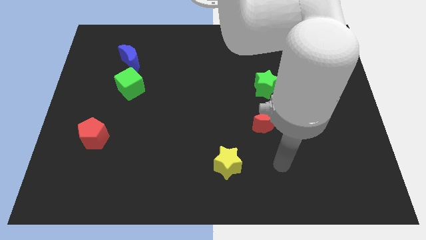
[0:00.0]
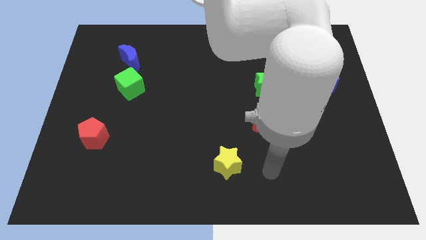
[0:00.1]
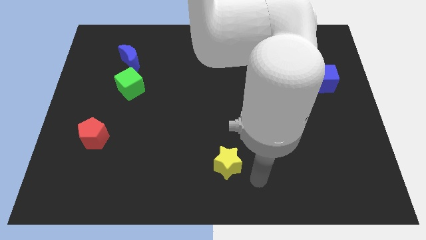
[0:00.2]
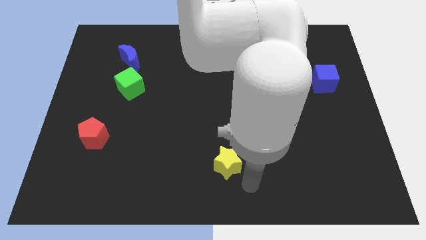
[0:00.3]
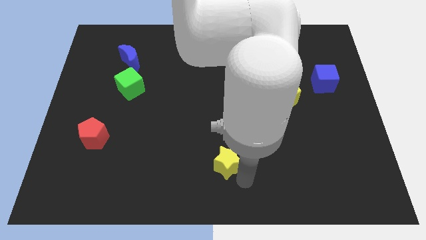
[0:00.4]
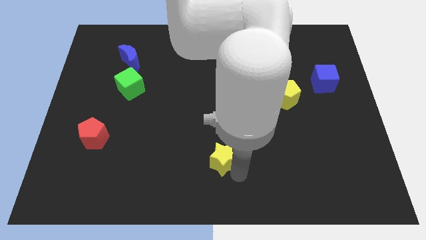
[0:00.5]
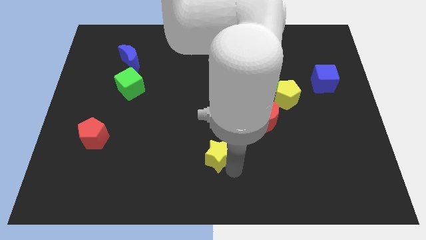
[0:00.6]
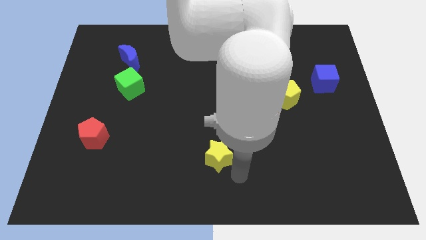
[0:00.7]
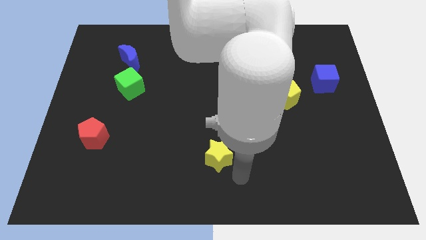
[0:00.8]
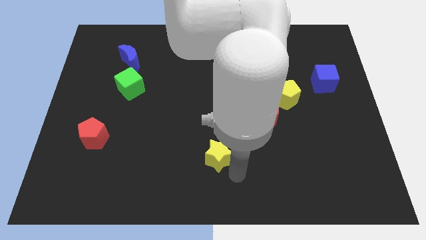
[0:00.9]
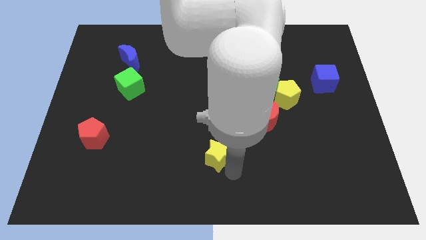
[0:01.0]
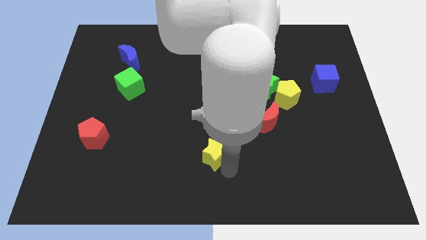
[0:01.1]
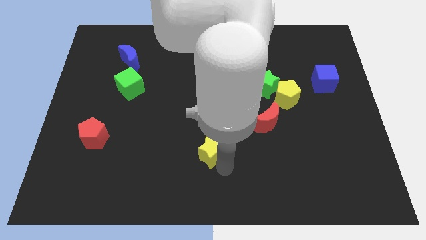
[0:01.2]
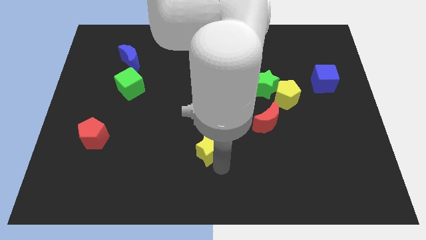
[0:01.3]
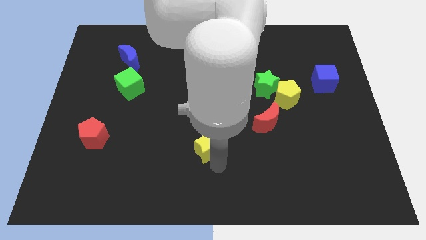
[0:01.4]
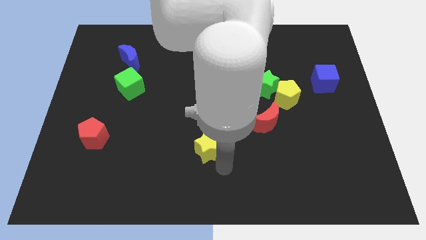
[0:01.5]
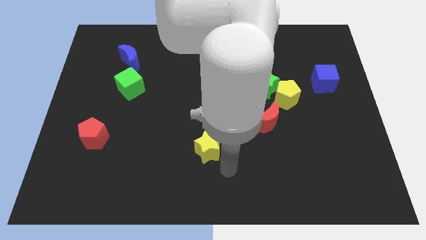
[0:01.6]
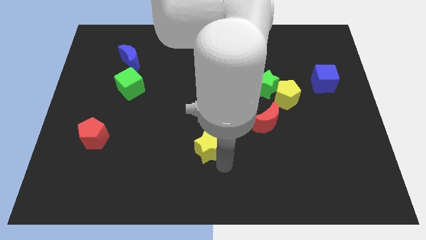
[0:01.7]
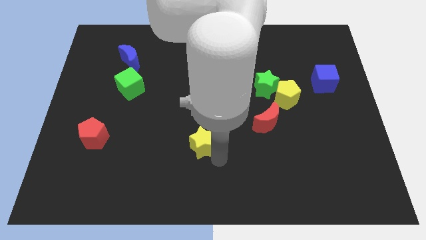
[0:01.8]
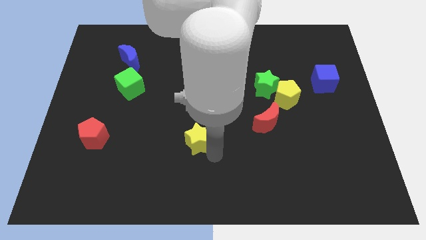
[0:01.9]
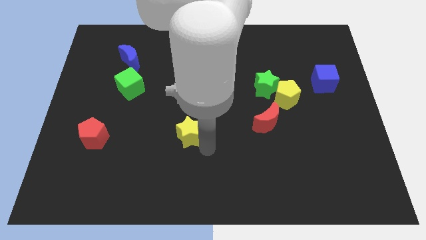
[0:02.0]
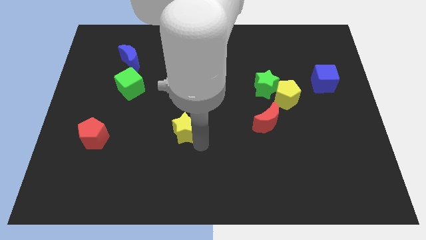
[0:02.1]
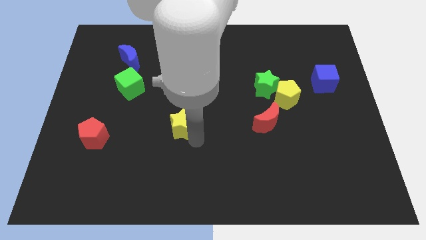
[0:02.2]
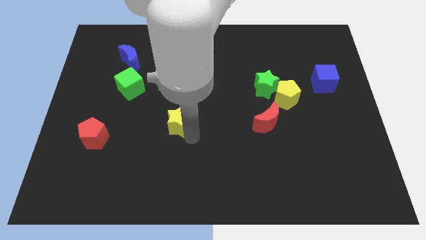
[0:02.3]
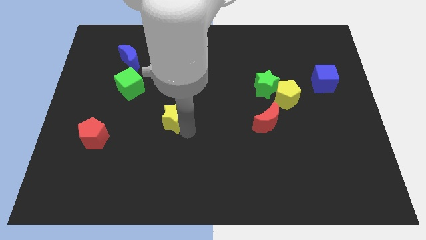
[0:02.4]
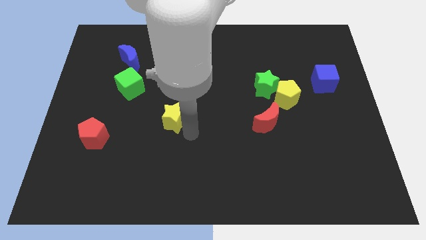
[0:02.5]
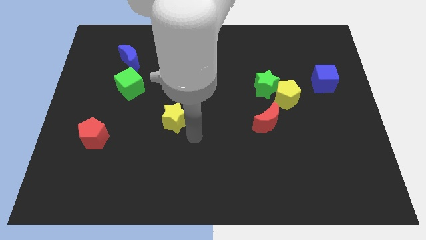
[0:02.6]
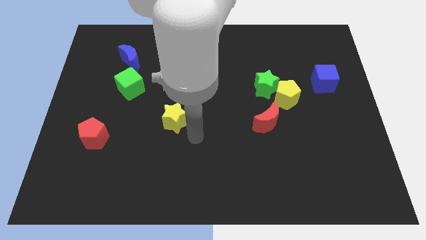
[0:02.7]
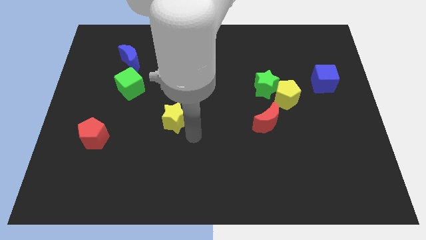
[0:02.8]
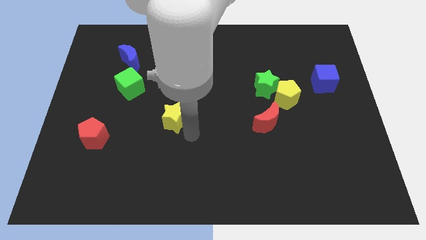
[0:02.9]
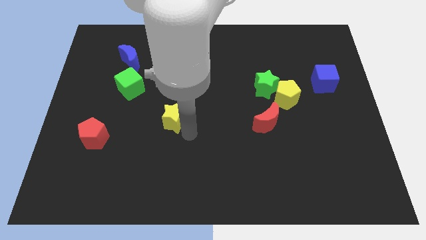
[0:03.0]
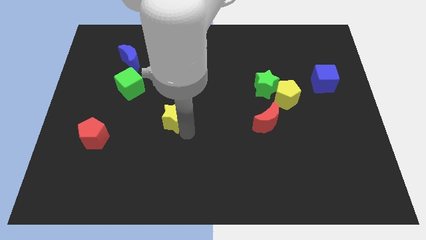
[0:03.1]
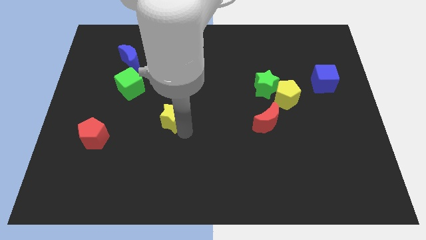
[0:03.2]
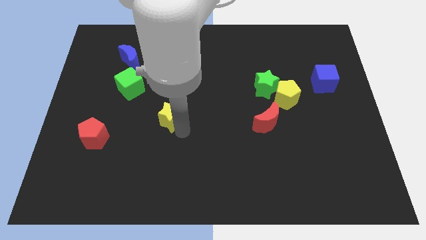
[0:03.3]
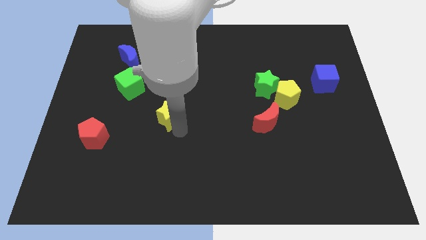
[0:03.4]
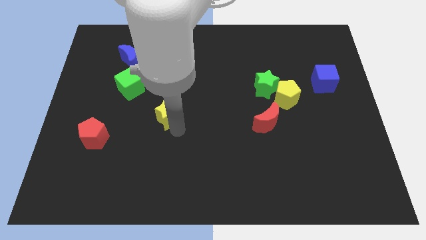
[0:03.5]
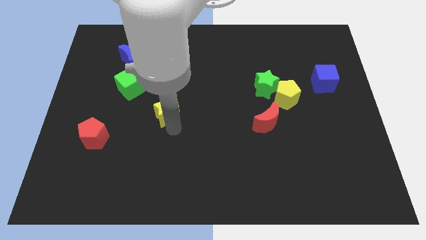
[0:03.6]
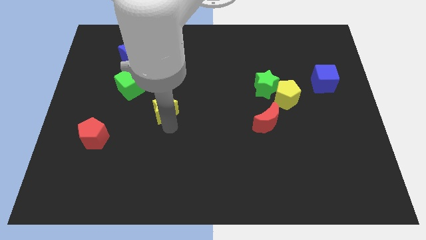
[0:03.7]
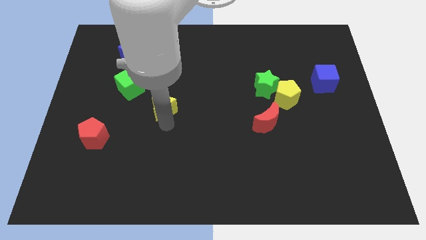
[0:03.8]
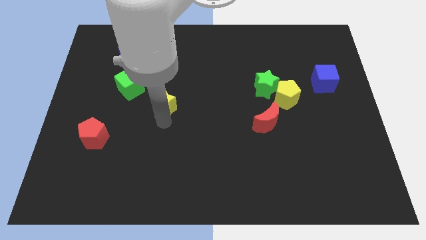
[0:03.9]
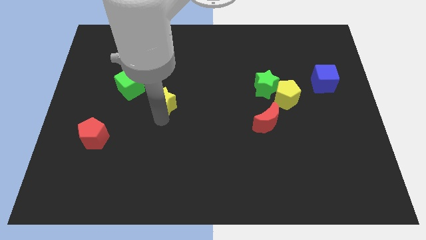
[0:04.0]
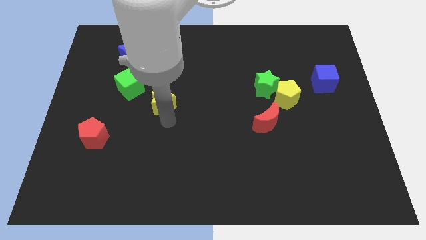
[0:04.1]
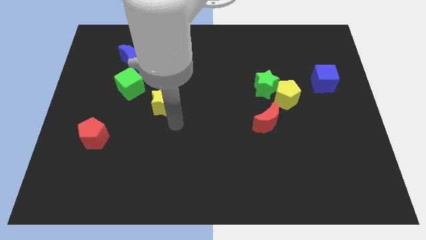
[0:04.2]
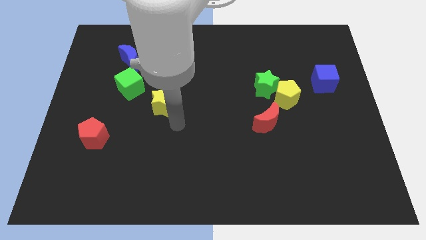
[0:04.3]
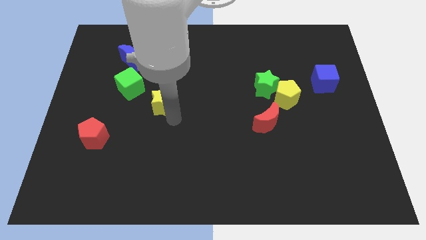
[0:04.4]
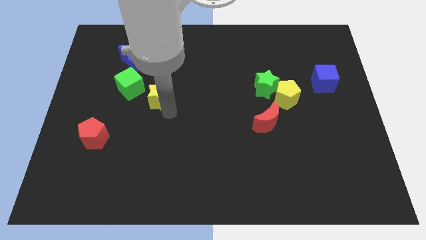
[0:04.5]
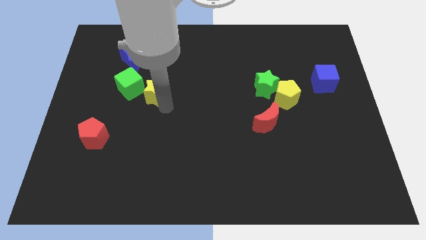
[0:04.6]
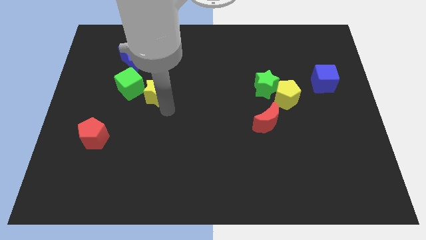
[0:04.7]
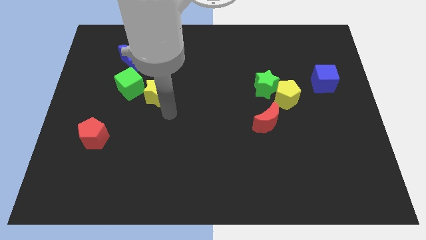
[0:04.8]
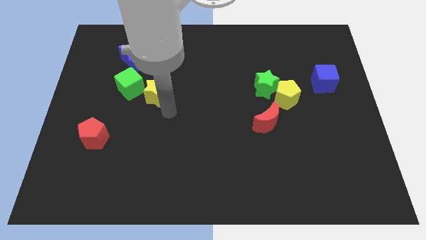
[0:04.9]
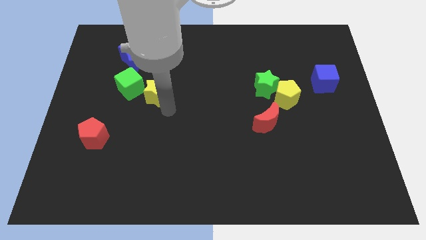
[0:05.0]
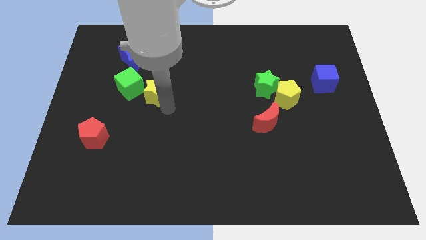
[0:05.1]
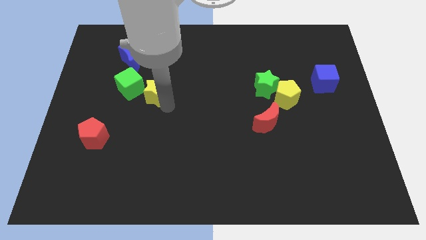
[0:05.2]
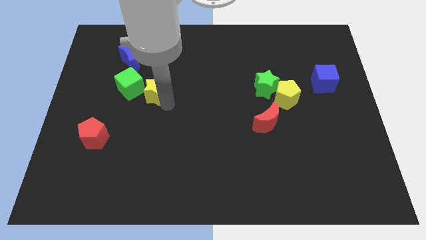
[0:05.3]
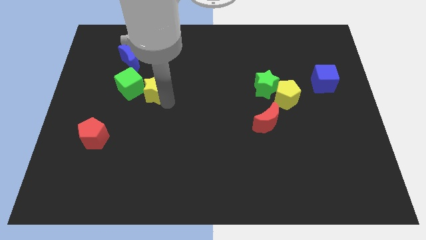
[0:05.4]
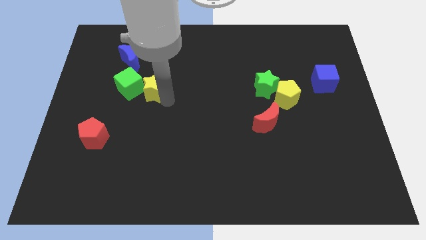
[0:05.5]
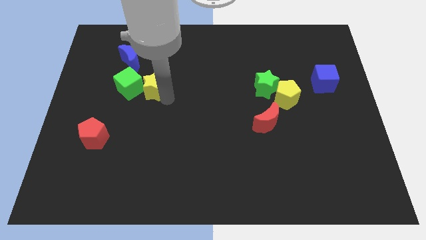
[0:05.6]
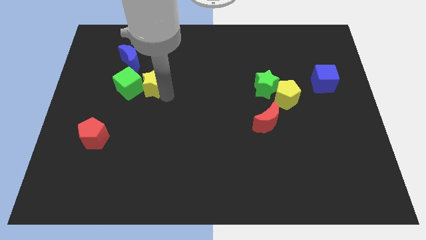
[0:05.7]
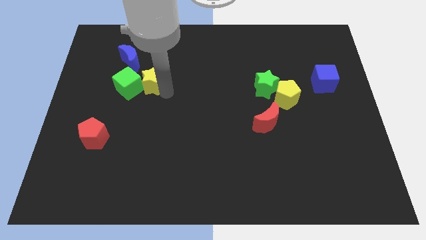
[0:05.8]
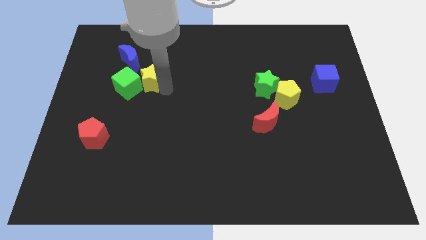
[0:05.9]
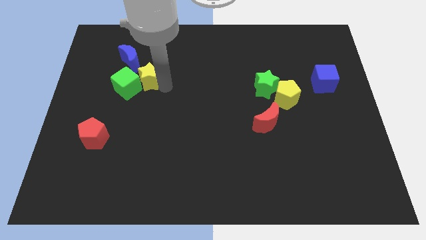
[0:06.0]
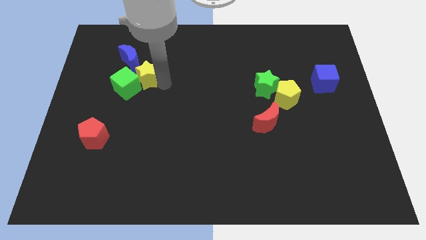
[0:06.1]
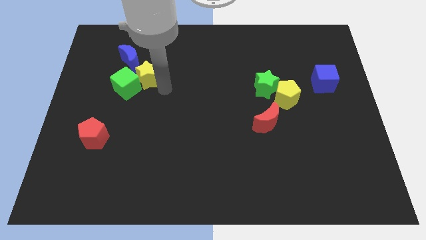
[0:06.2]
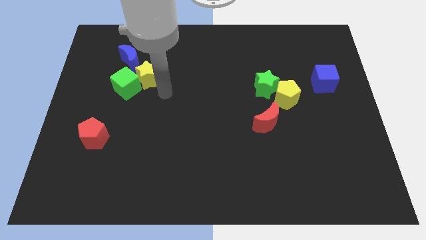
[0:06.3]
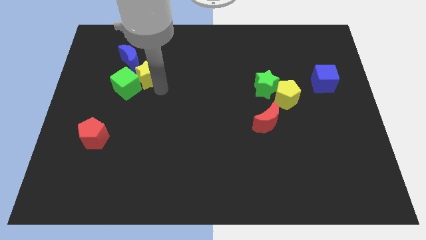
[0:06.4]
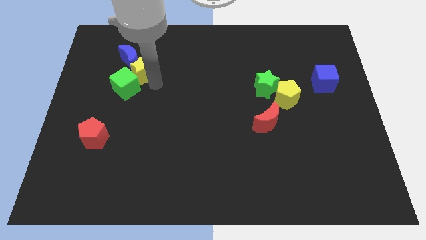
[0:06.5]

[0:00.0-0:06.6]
push the yellow star next to the blue moon
